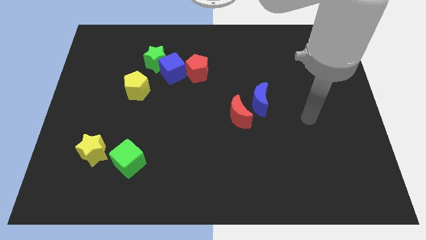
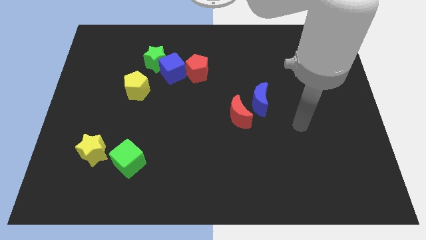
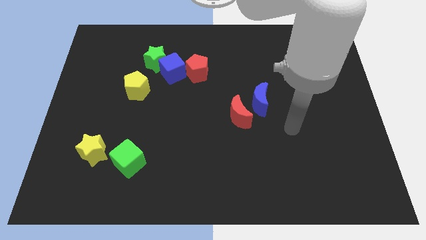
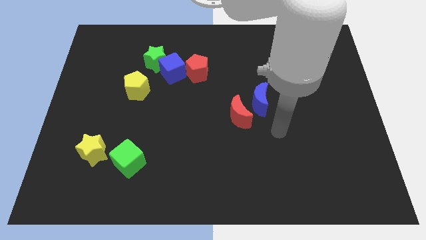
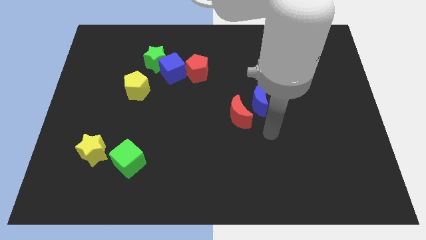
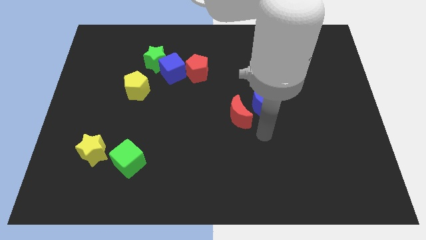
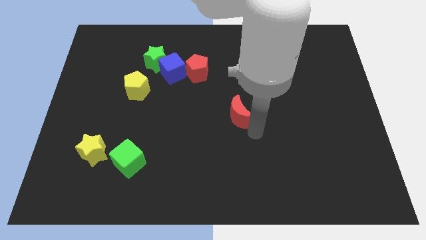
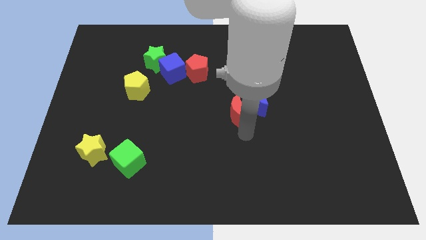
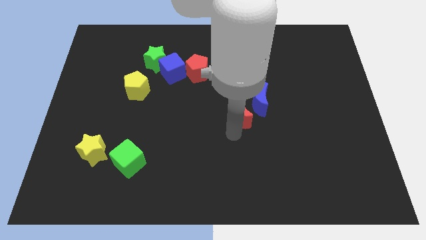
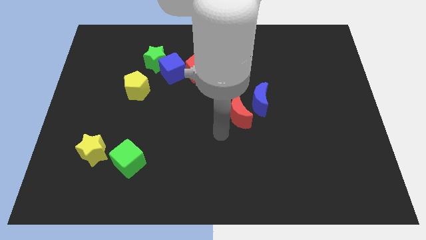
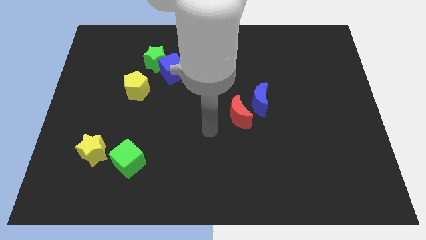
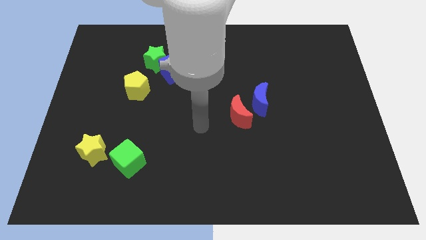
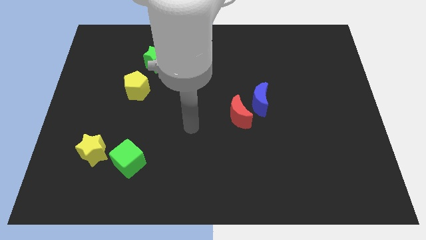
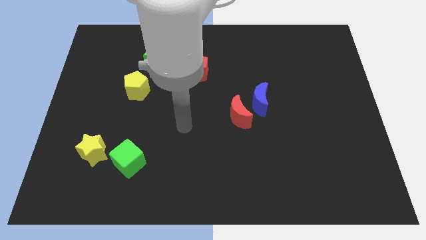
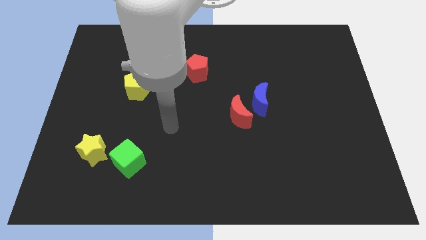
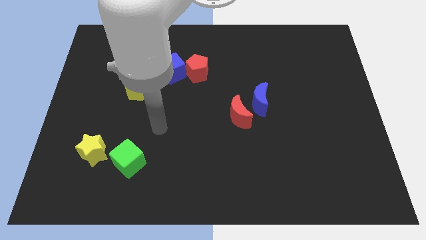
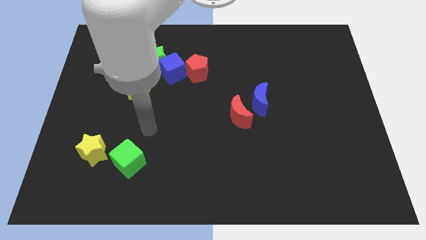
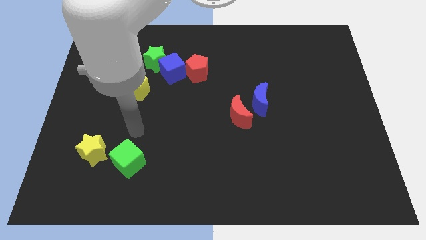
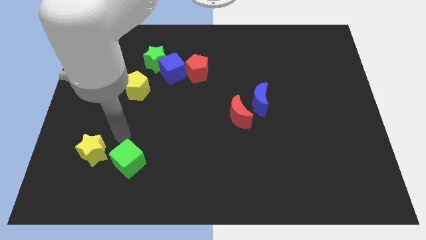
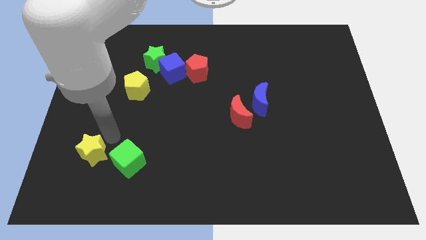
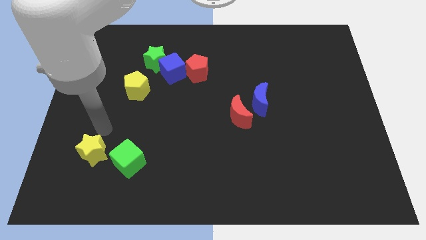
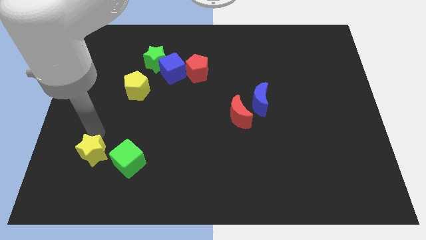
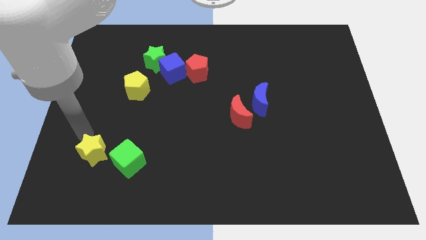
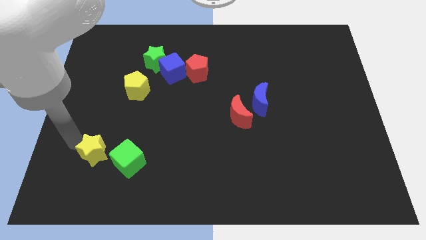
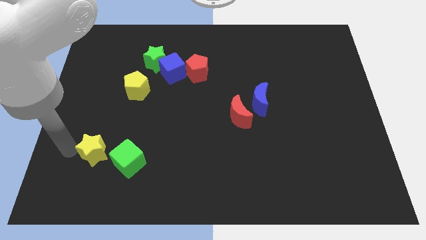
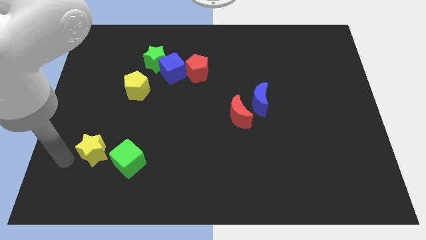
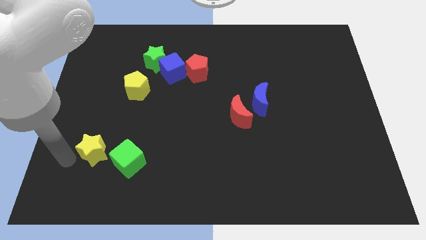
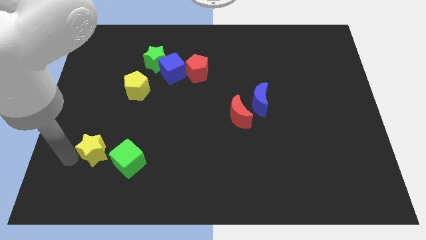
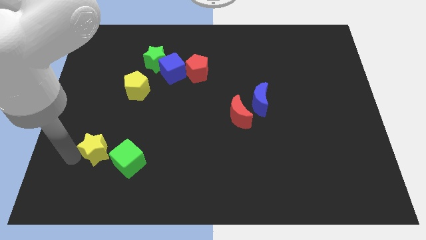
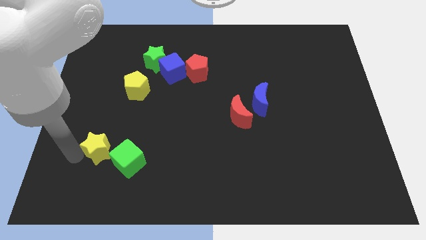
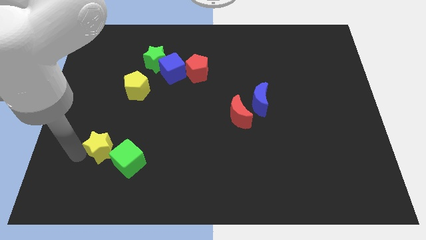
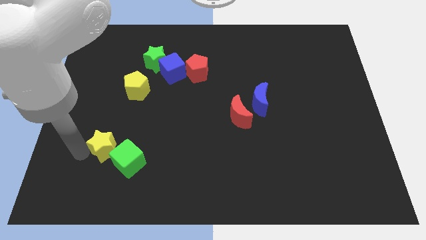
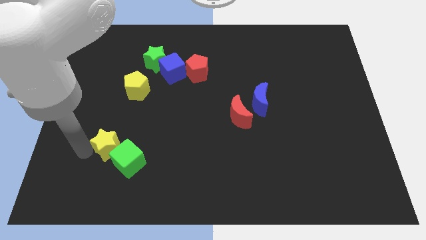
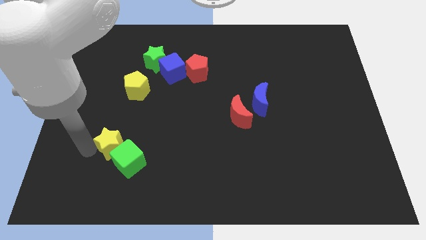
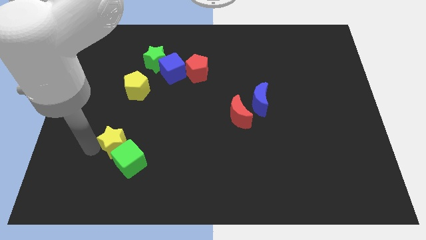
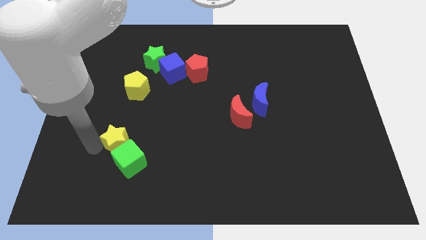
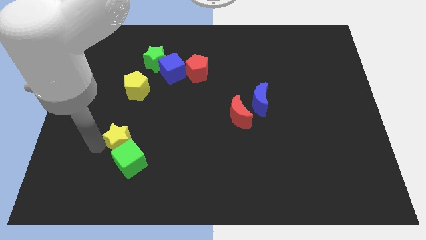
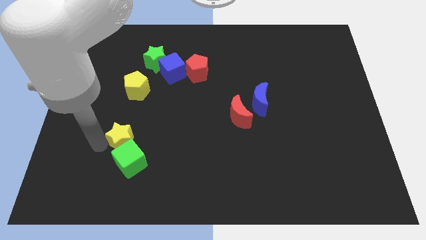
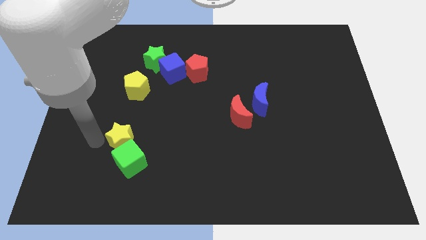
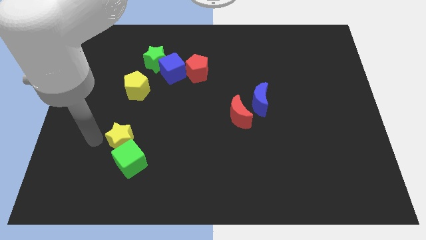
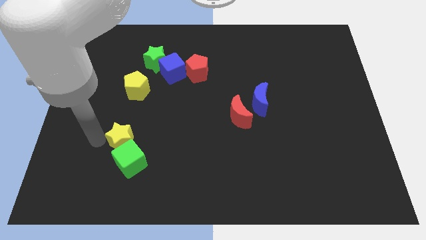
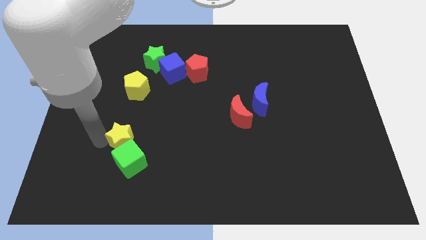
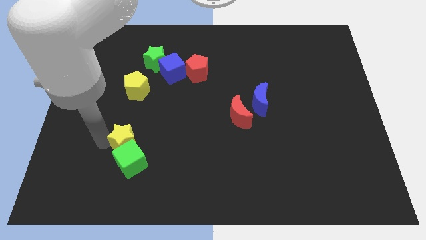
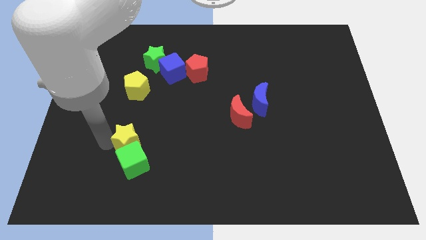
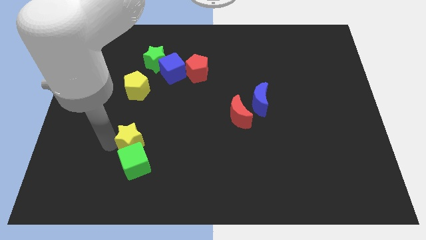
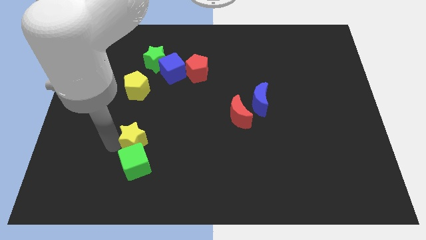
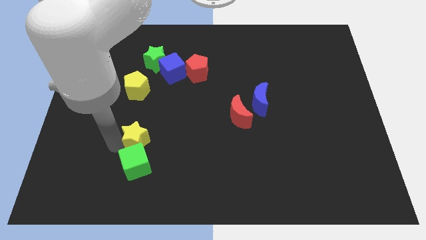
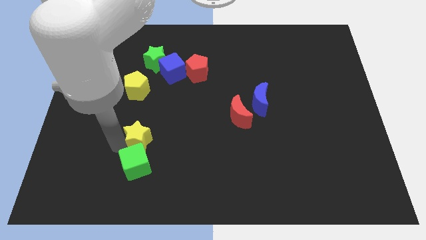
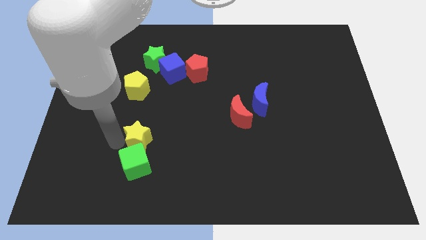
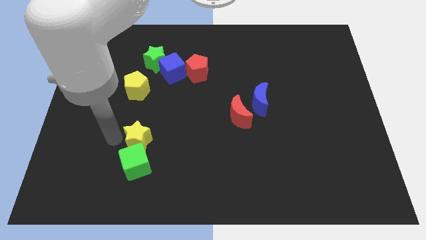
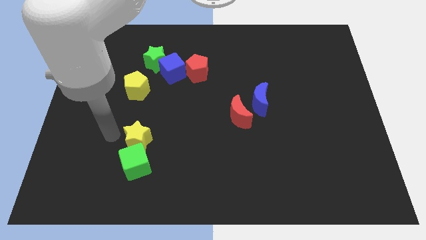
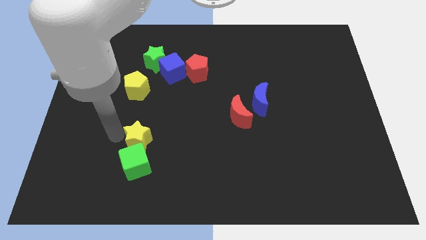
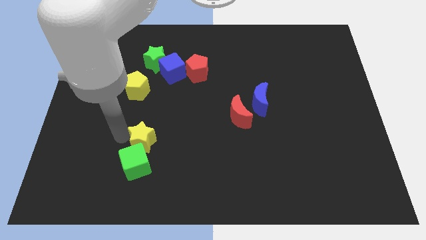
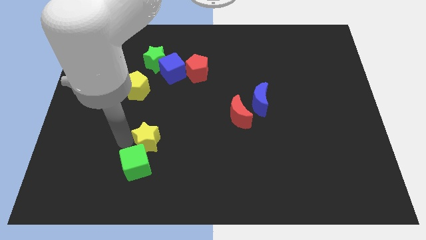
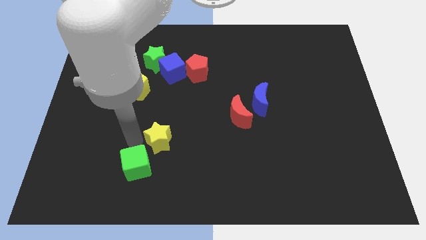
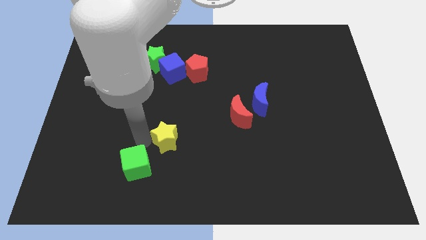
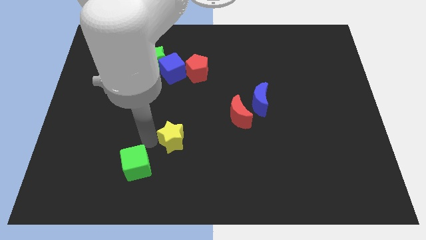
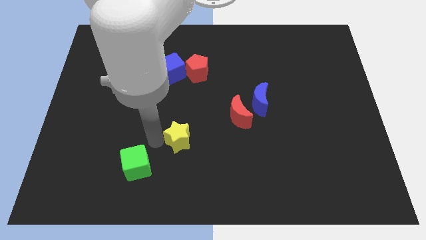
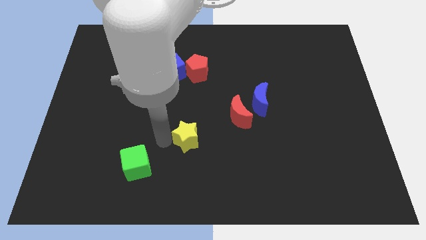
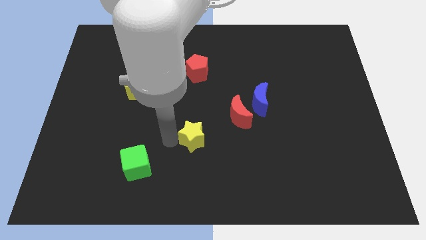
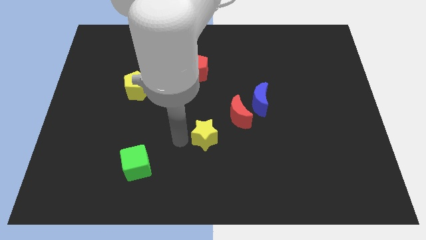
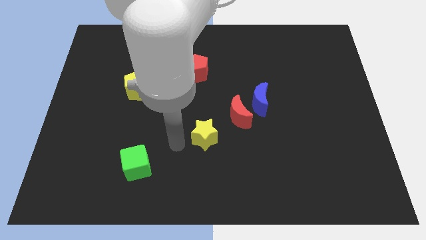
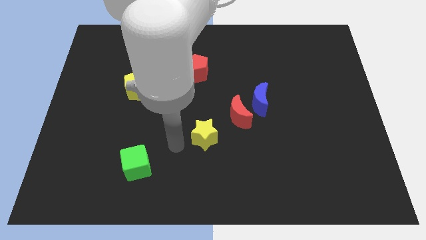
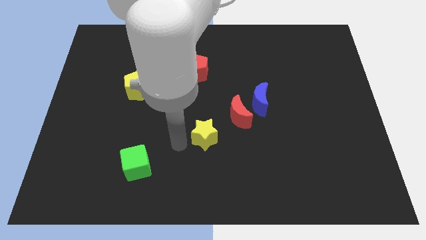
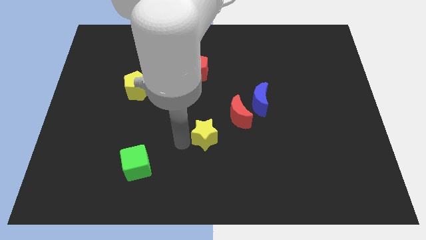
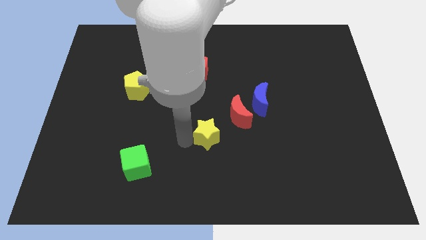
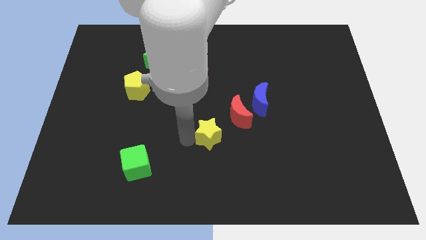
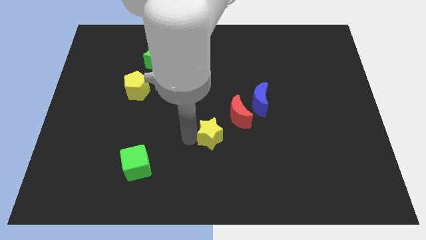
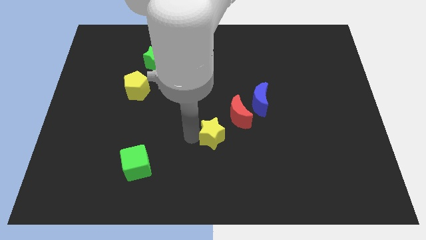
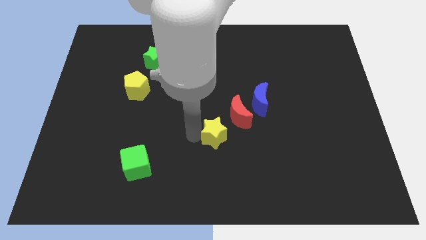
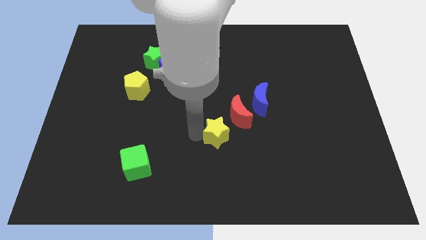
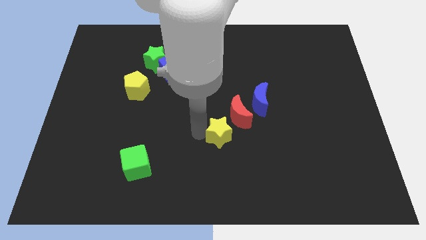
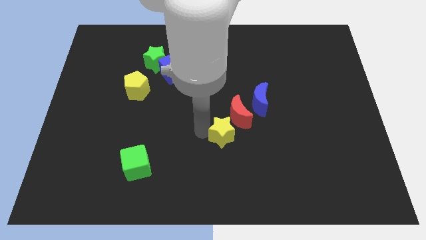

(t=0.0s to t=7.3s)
put the yellow star to the bottom left side of the blue moon

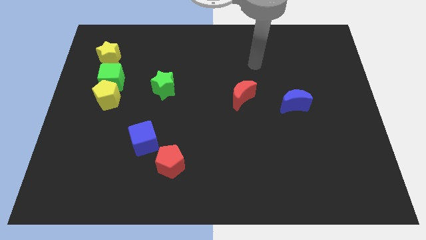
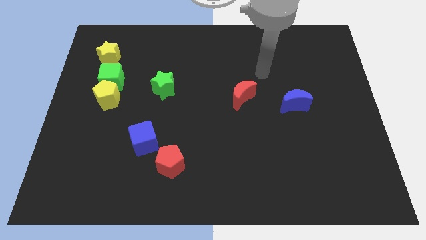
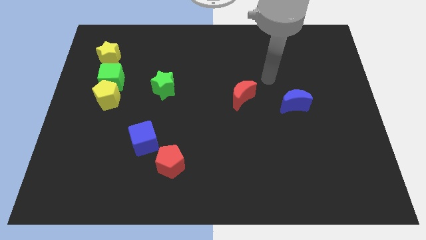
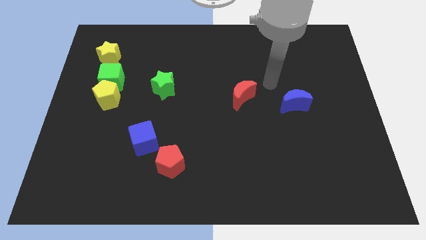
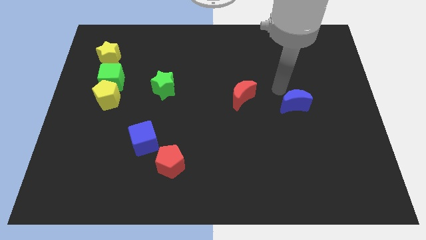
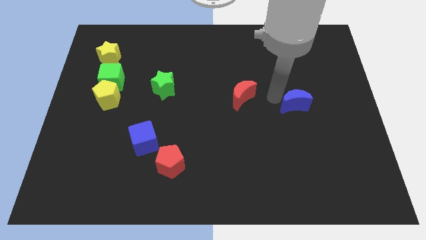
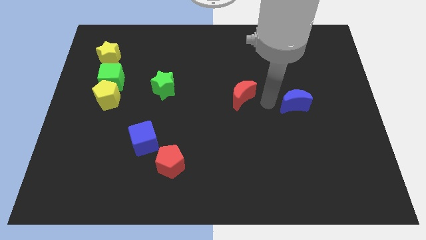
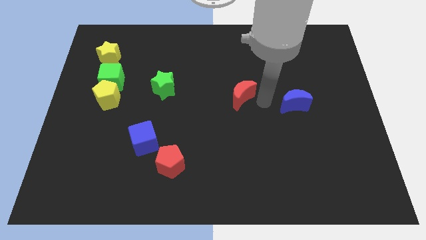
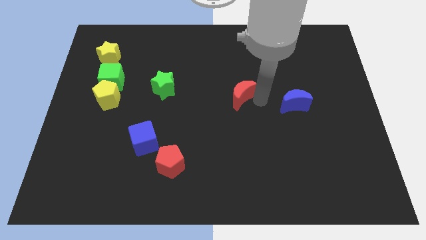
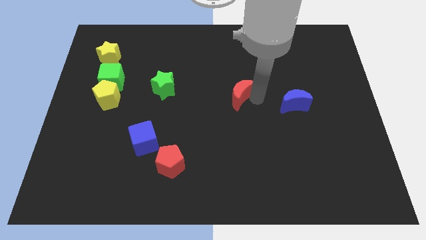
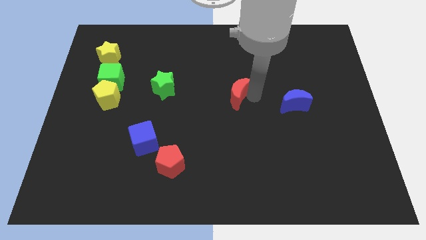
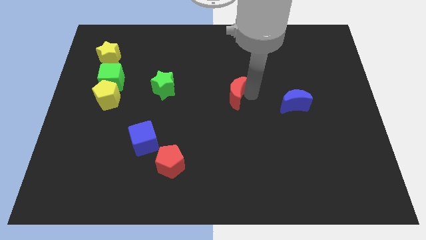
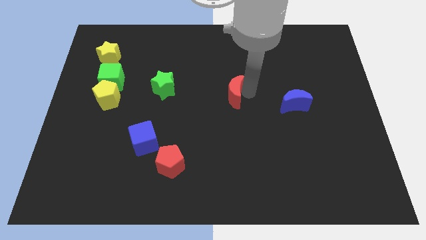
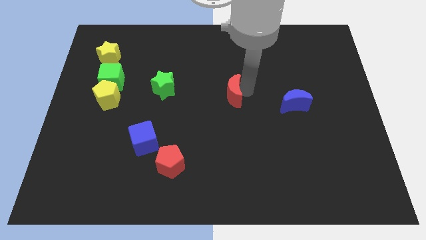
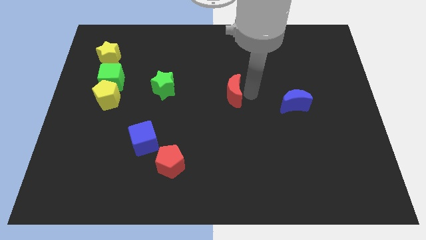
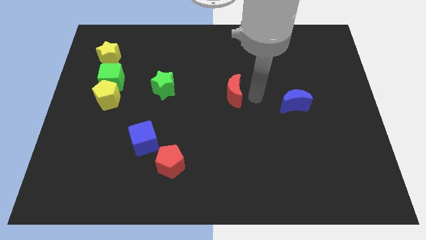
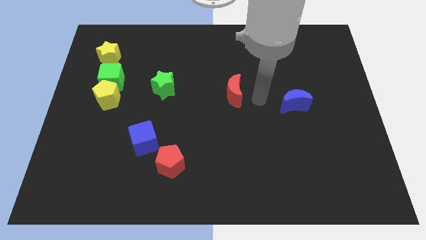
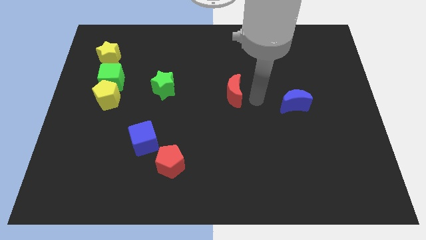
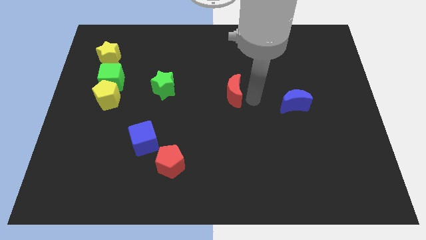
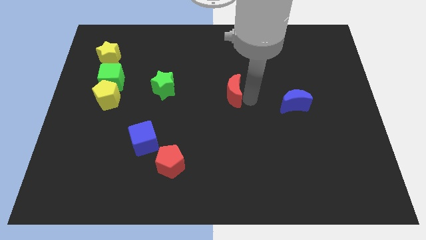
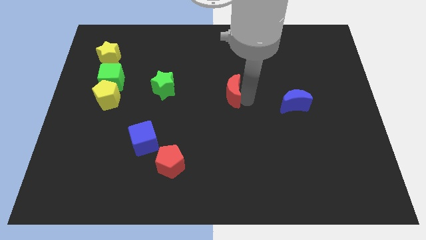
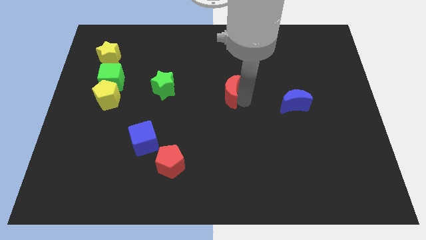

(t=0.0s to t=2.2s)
move the red moon right of the green star
